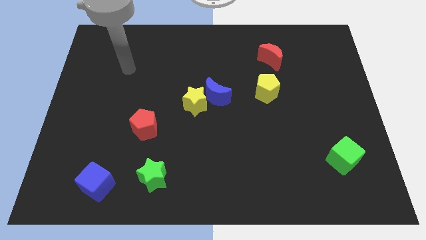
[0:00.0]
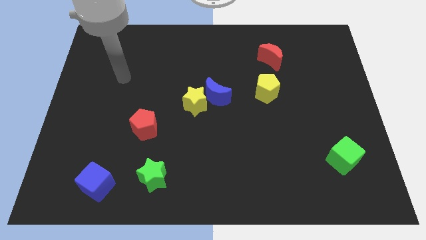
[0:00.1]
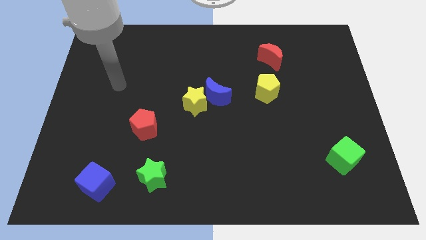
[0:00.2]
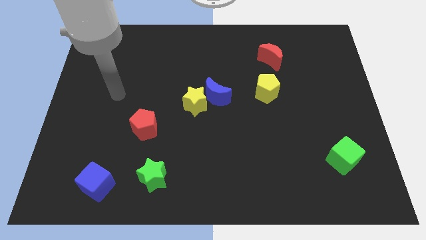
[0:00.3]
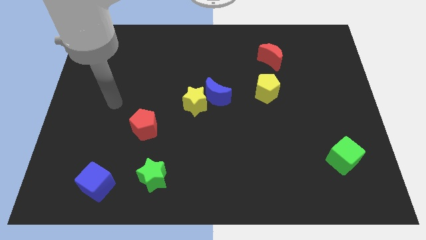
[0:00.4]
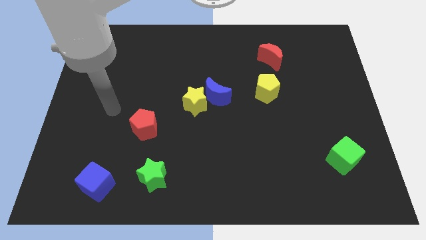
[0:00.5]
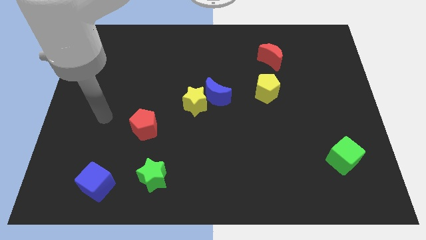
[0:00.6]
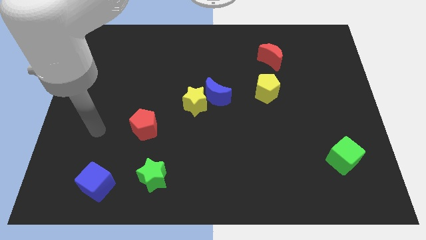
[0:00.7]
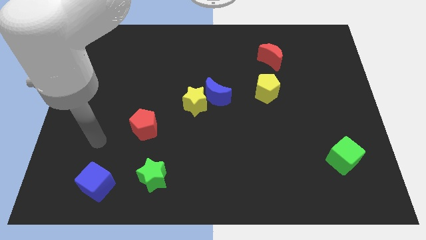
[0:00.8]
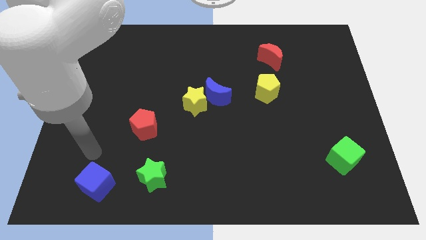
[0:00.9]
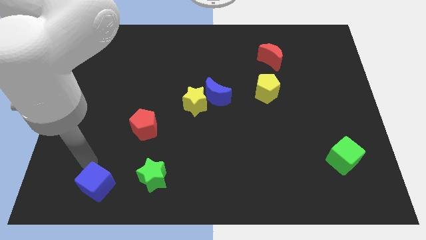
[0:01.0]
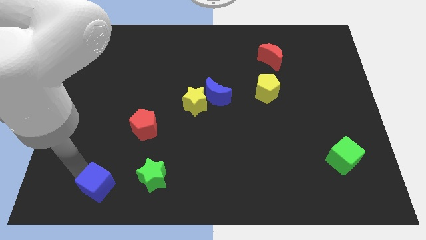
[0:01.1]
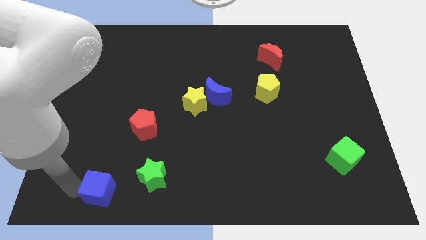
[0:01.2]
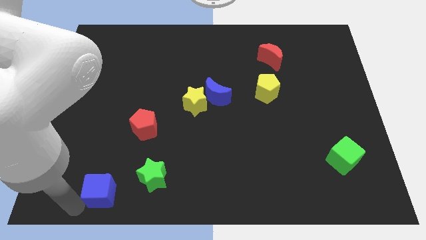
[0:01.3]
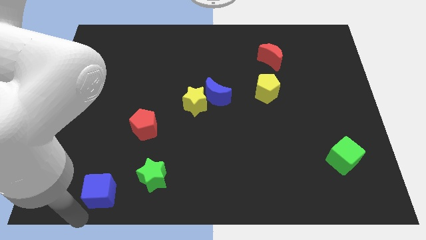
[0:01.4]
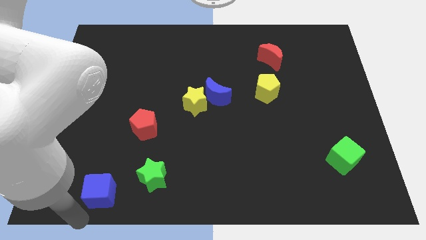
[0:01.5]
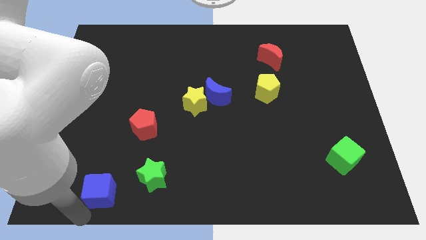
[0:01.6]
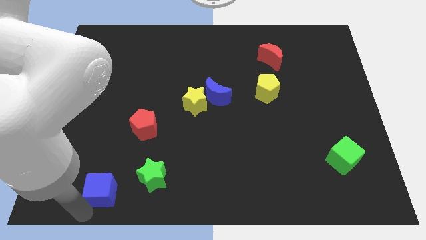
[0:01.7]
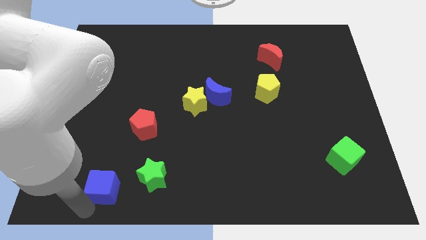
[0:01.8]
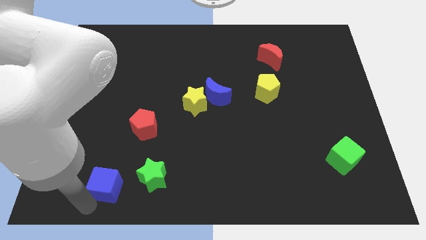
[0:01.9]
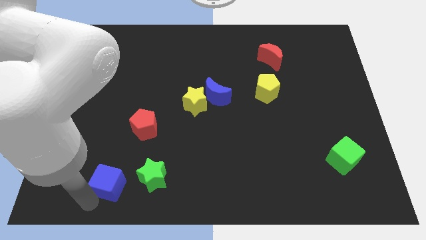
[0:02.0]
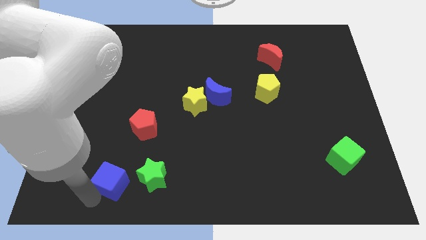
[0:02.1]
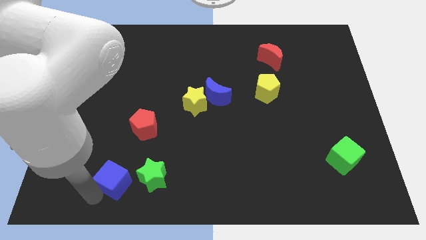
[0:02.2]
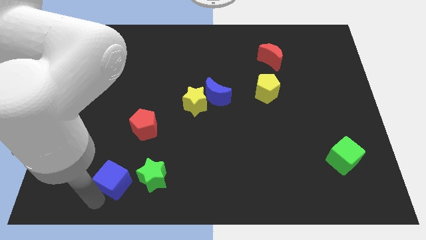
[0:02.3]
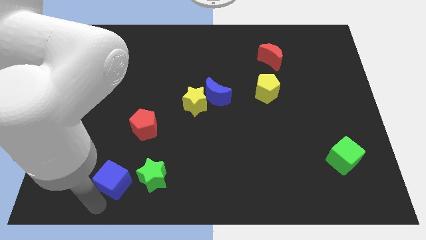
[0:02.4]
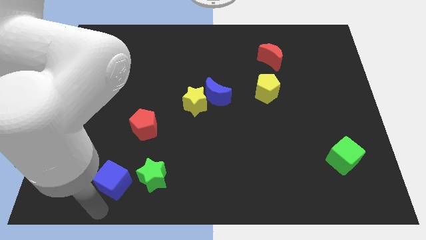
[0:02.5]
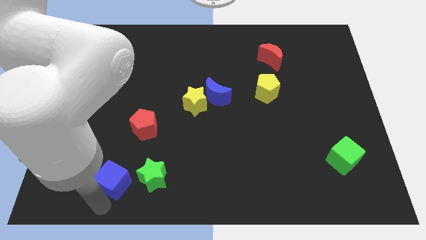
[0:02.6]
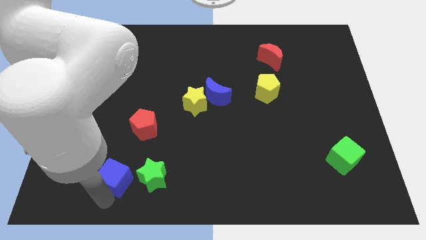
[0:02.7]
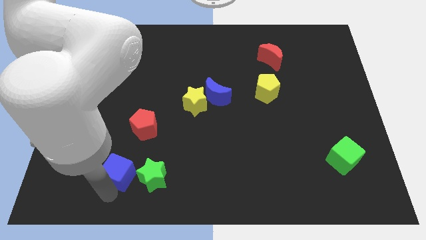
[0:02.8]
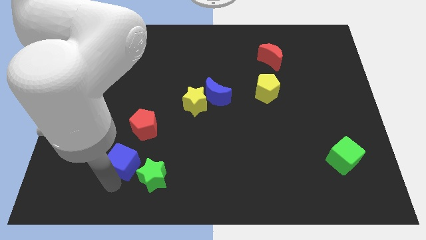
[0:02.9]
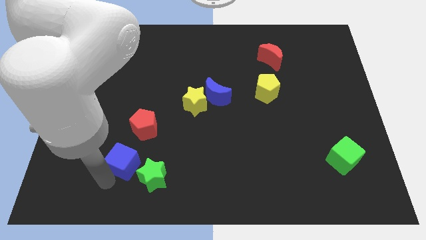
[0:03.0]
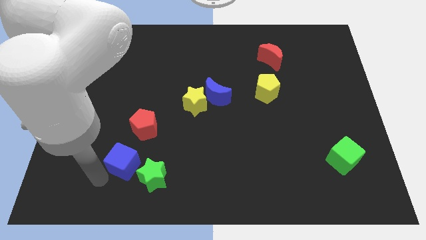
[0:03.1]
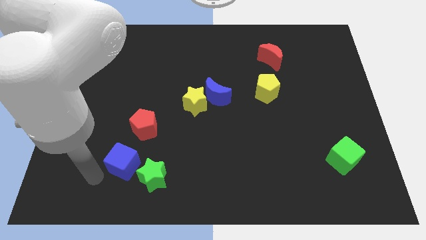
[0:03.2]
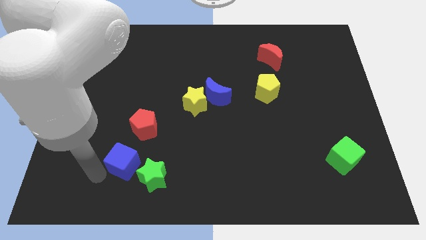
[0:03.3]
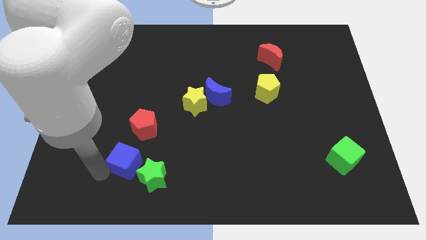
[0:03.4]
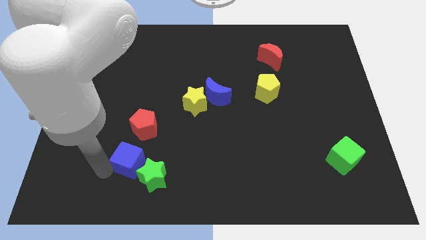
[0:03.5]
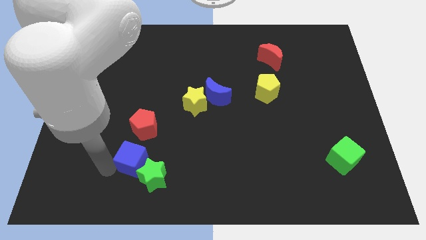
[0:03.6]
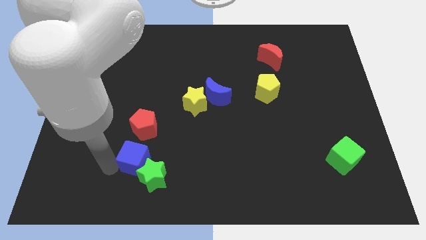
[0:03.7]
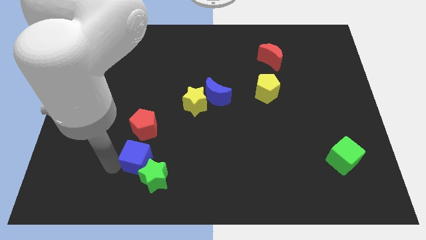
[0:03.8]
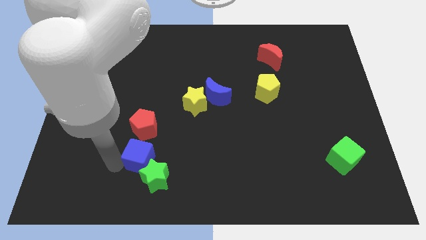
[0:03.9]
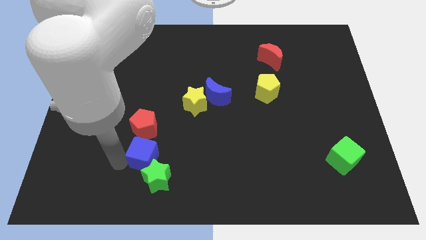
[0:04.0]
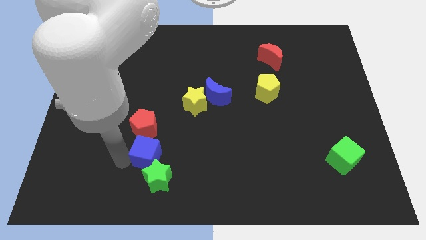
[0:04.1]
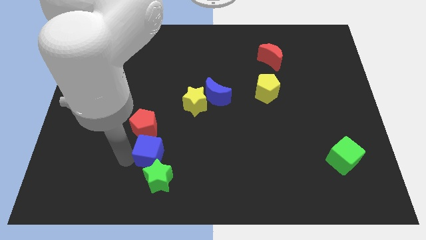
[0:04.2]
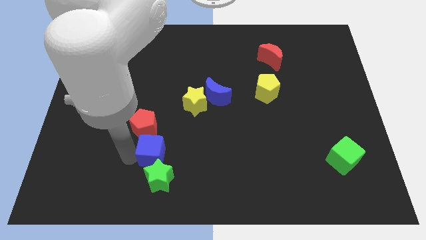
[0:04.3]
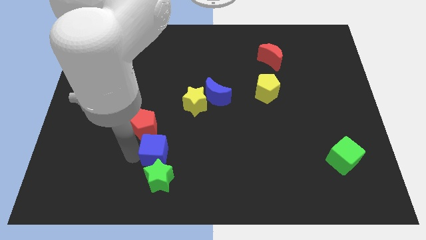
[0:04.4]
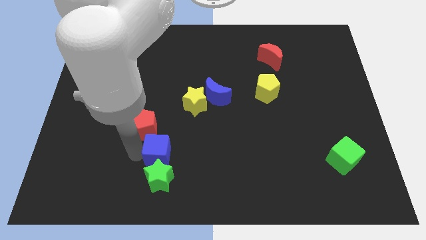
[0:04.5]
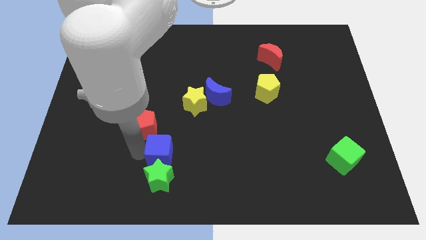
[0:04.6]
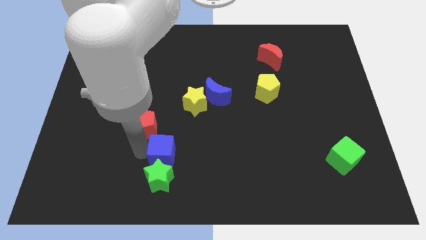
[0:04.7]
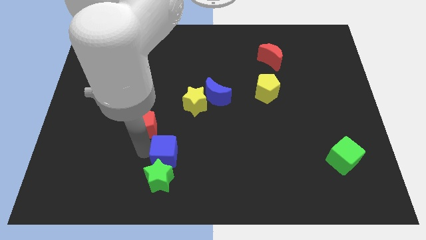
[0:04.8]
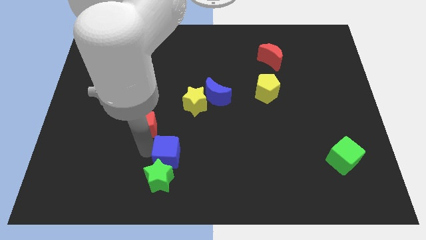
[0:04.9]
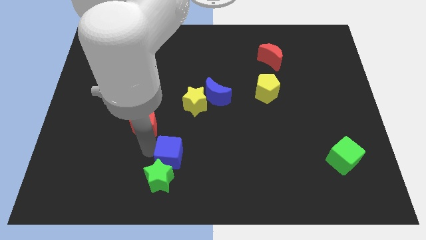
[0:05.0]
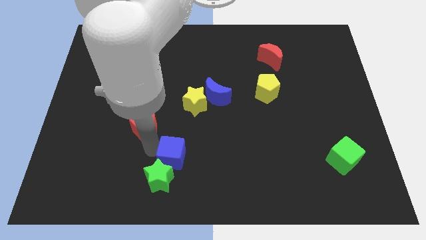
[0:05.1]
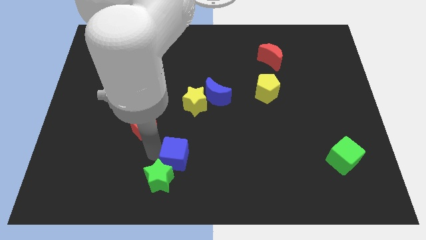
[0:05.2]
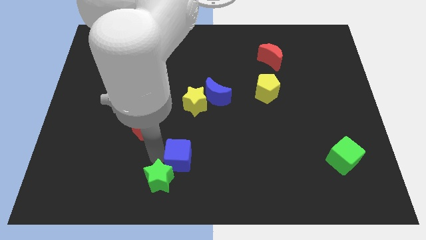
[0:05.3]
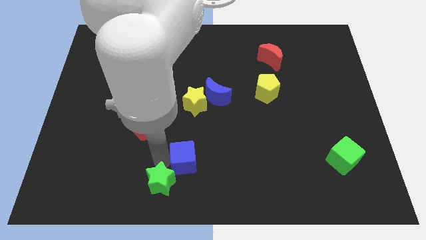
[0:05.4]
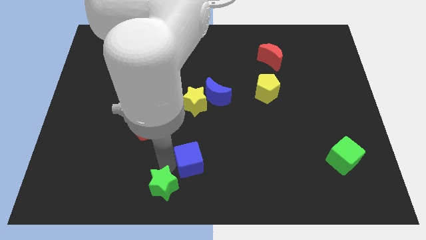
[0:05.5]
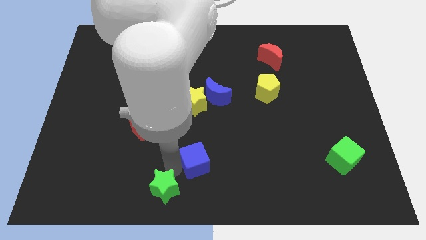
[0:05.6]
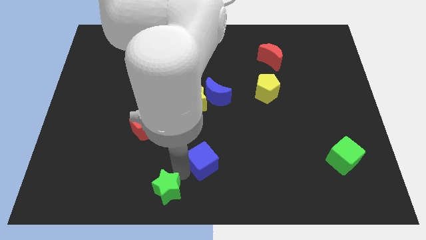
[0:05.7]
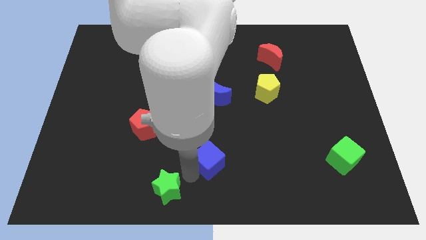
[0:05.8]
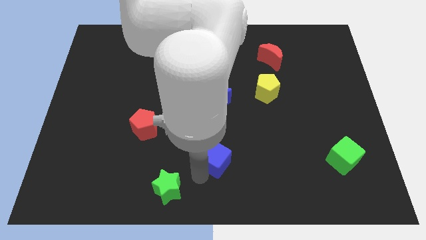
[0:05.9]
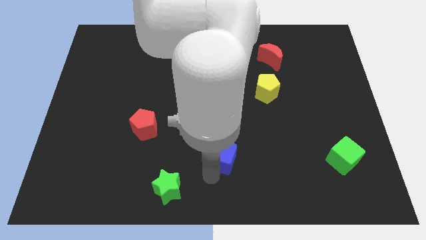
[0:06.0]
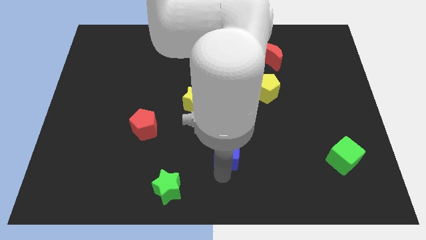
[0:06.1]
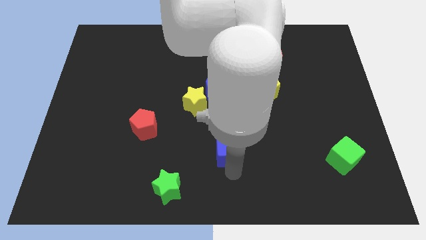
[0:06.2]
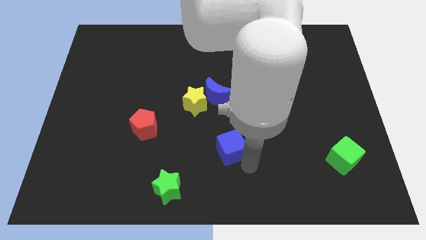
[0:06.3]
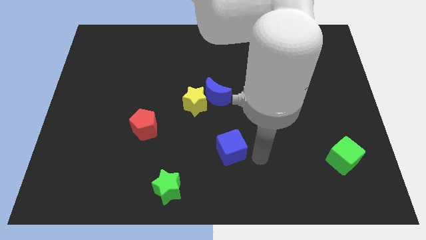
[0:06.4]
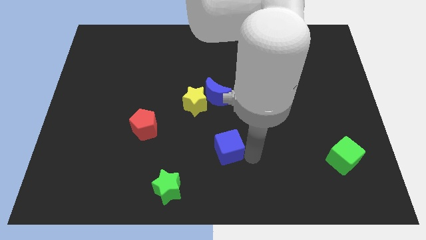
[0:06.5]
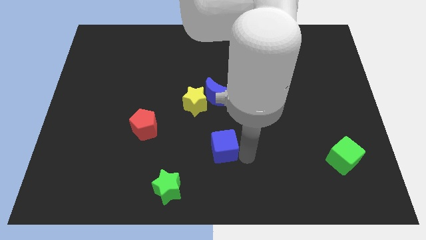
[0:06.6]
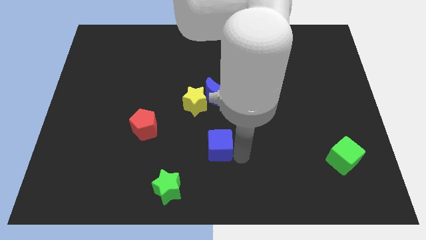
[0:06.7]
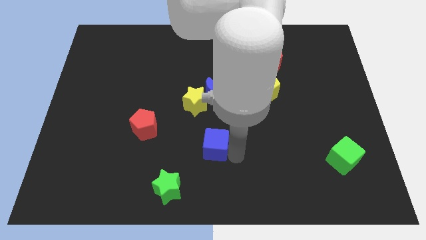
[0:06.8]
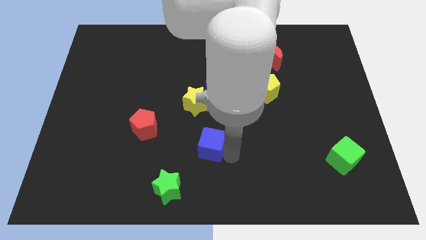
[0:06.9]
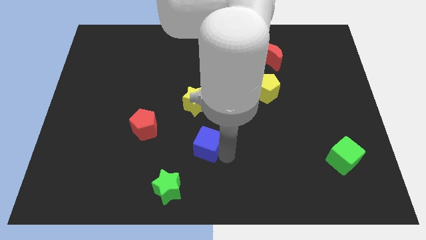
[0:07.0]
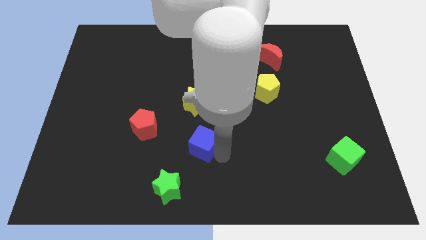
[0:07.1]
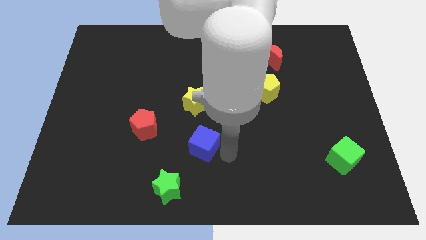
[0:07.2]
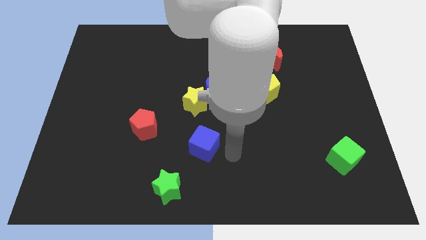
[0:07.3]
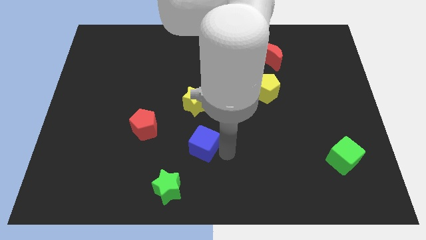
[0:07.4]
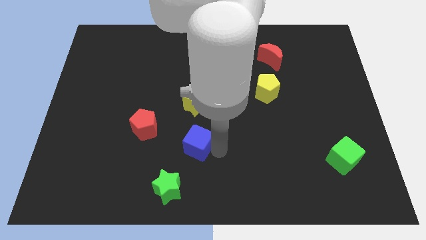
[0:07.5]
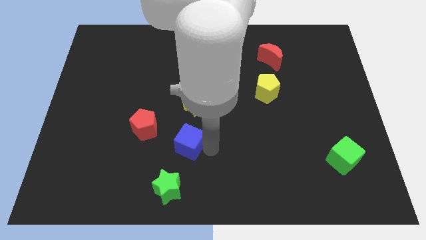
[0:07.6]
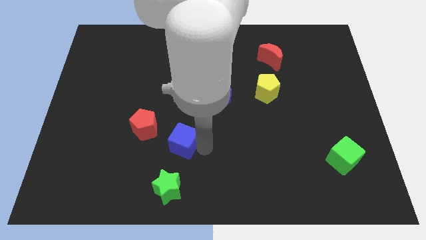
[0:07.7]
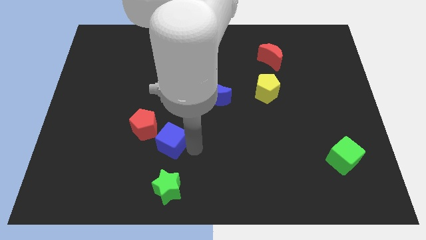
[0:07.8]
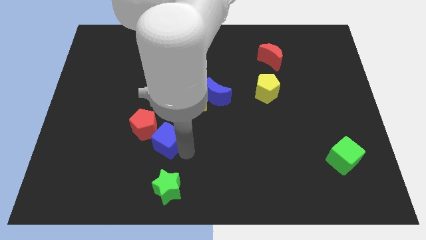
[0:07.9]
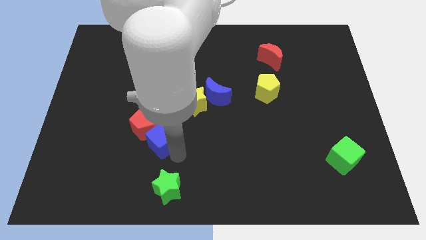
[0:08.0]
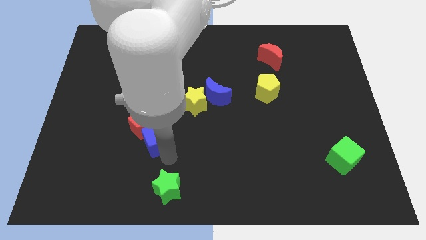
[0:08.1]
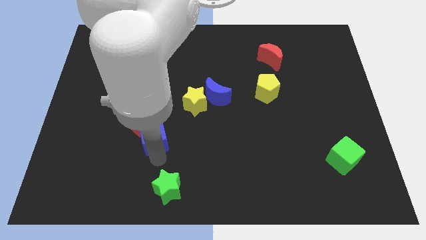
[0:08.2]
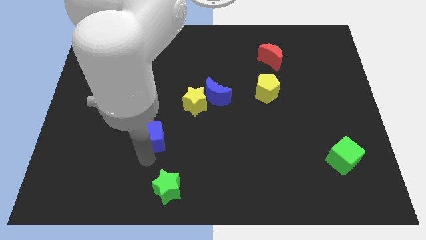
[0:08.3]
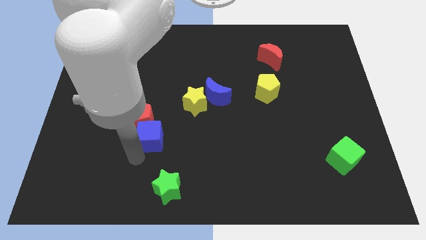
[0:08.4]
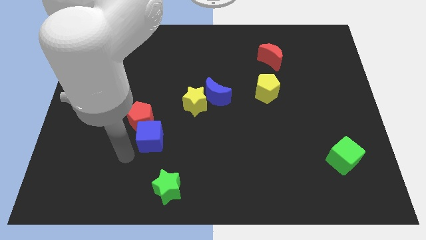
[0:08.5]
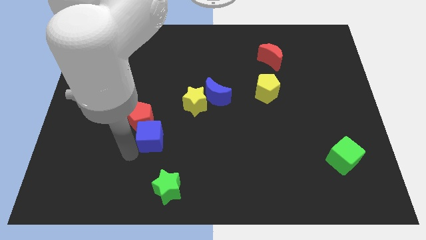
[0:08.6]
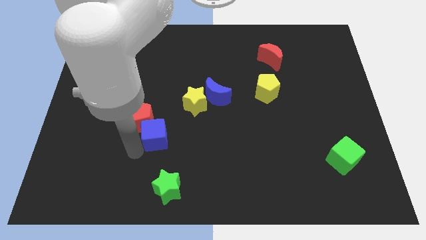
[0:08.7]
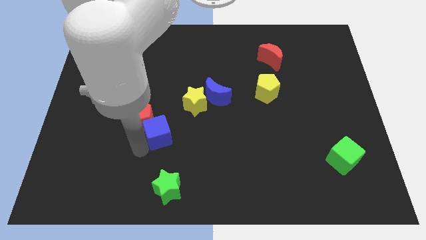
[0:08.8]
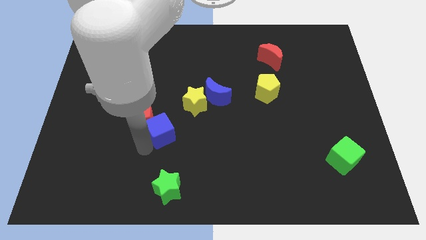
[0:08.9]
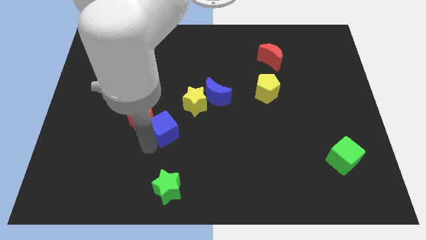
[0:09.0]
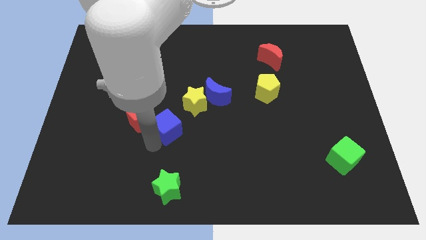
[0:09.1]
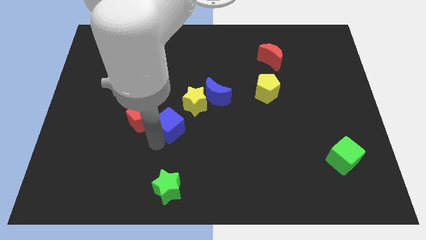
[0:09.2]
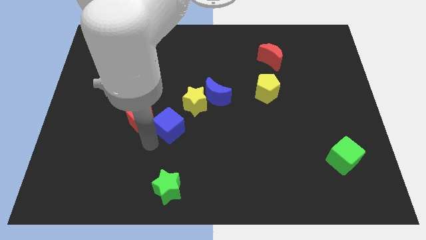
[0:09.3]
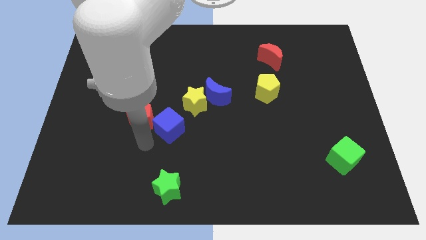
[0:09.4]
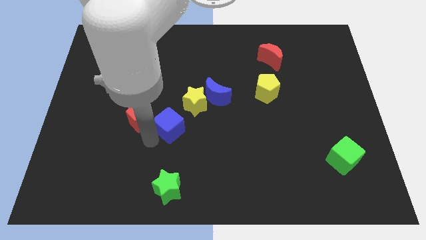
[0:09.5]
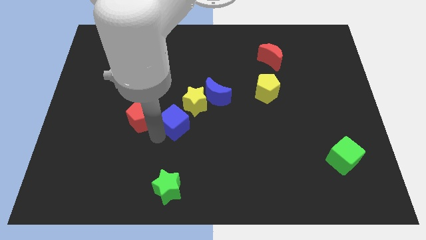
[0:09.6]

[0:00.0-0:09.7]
push the blue cube to the bottom left of the blue moon
